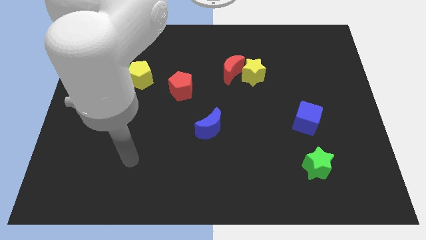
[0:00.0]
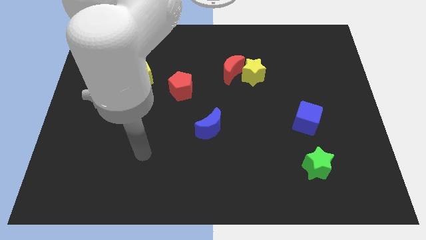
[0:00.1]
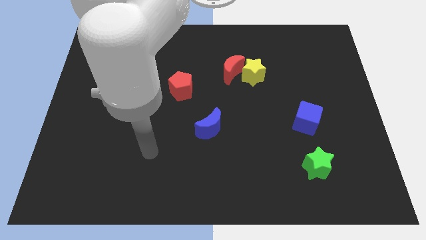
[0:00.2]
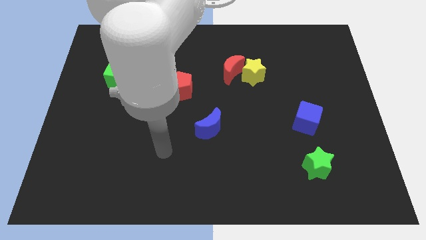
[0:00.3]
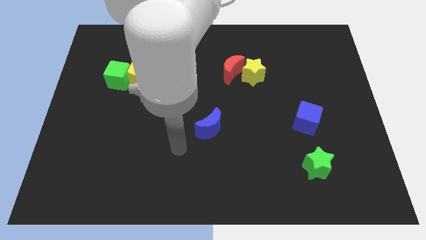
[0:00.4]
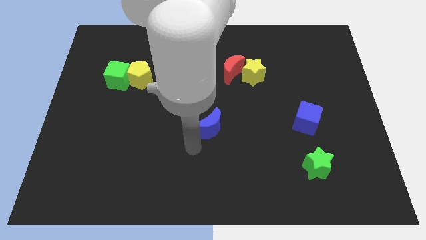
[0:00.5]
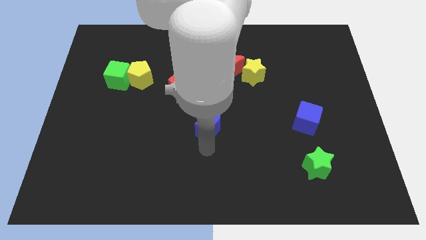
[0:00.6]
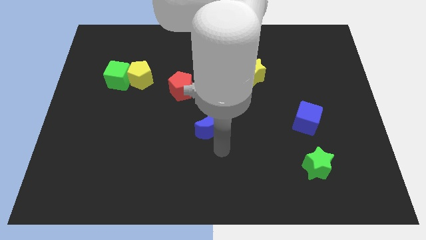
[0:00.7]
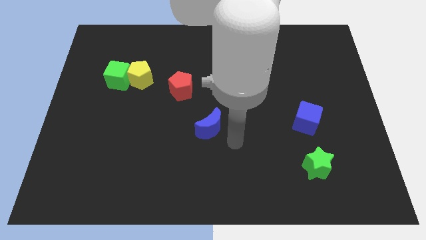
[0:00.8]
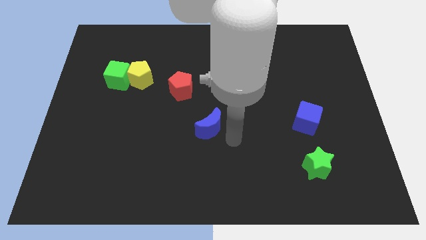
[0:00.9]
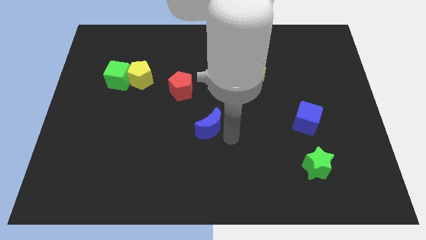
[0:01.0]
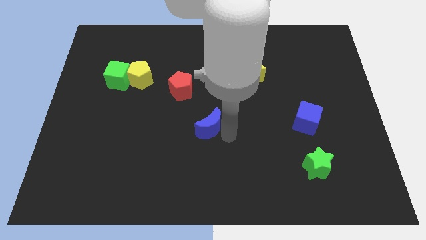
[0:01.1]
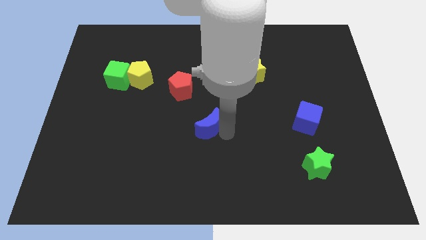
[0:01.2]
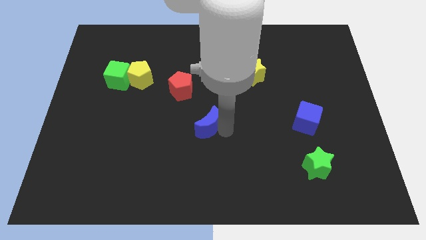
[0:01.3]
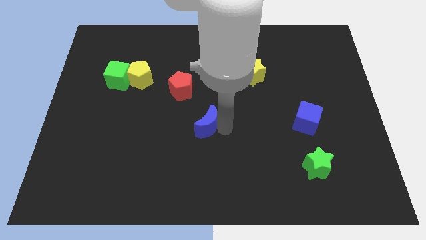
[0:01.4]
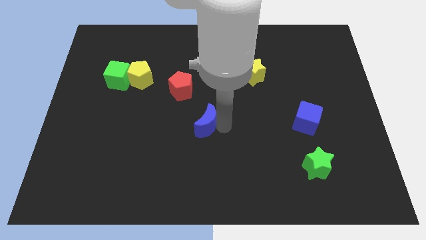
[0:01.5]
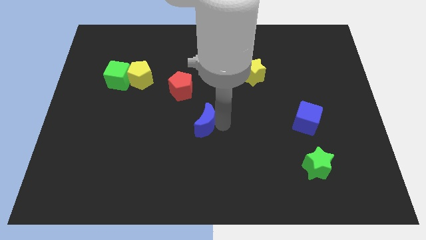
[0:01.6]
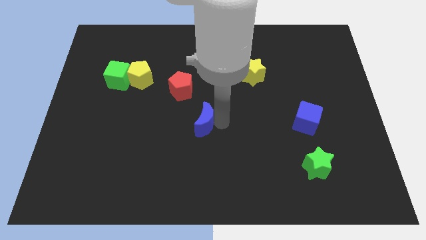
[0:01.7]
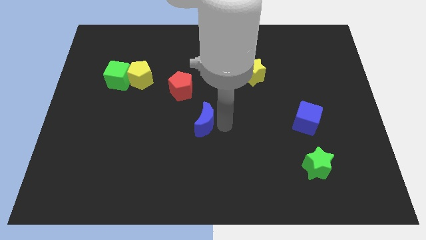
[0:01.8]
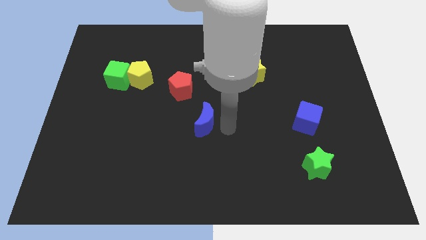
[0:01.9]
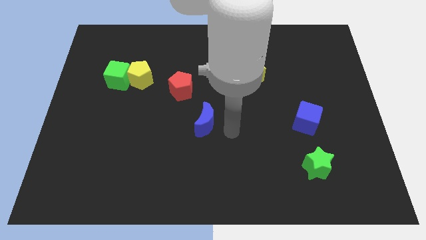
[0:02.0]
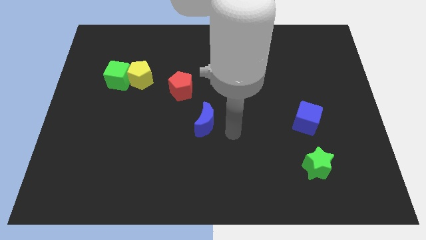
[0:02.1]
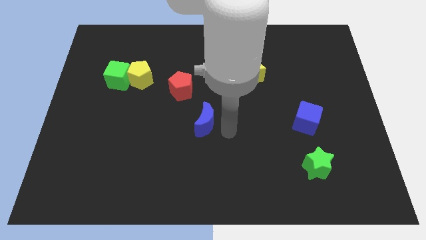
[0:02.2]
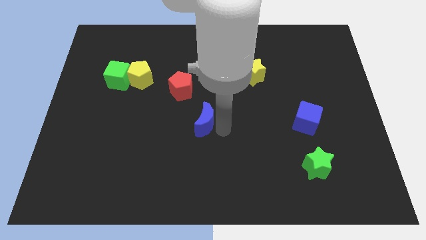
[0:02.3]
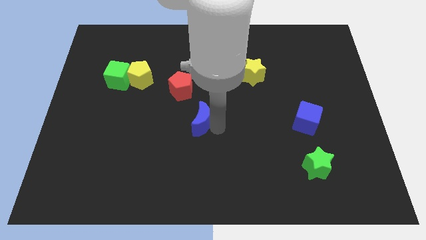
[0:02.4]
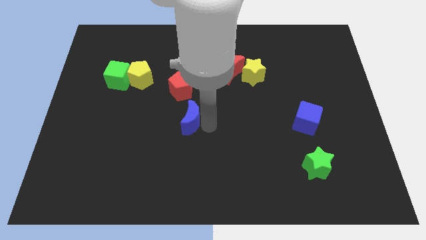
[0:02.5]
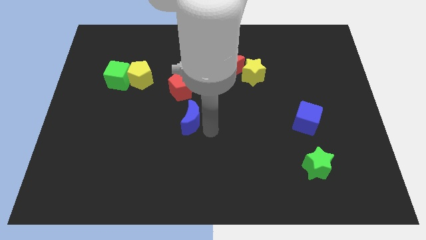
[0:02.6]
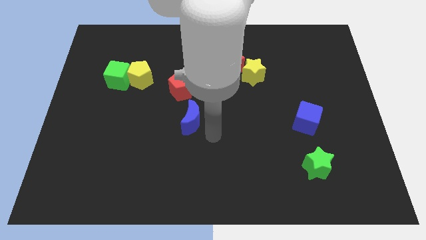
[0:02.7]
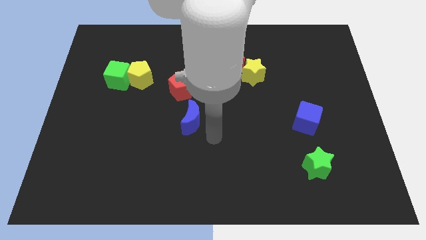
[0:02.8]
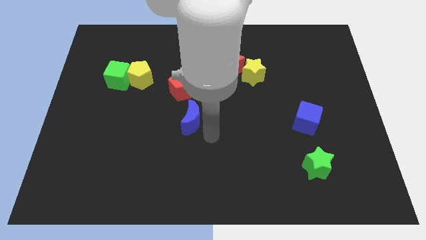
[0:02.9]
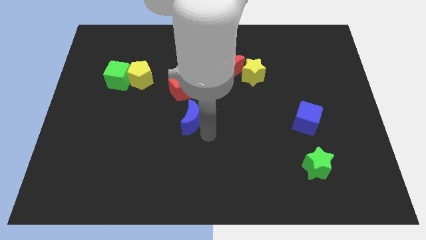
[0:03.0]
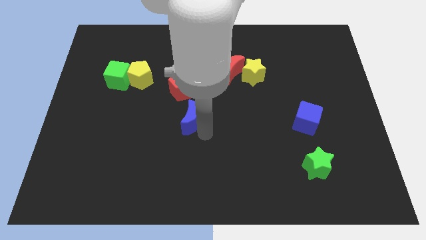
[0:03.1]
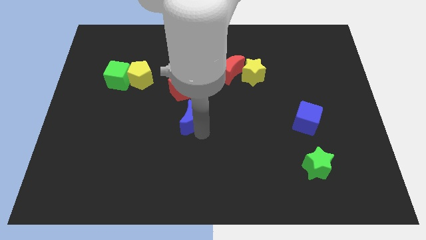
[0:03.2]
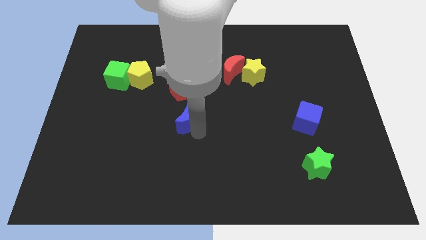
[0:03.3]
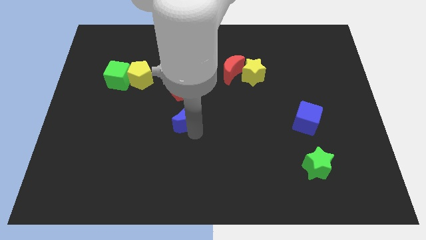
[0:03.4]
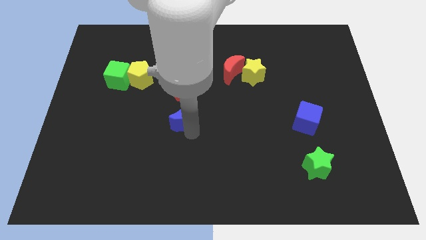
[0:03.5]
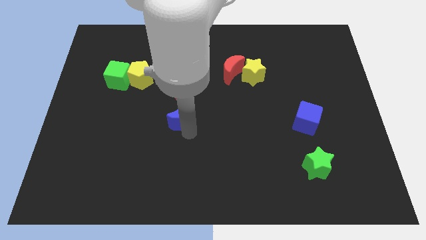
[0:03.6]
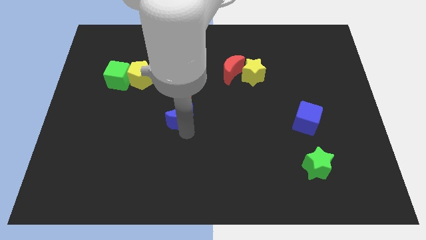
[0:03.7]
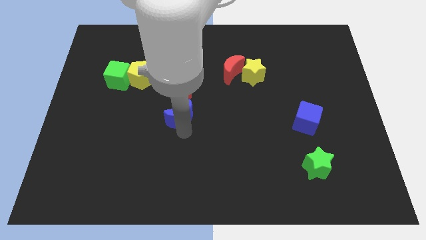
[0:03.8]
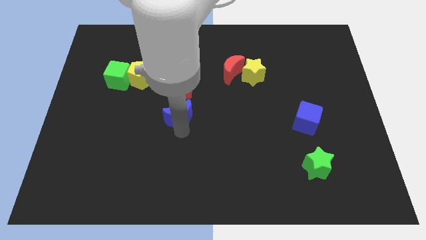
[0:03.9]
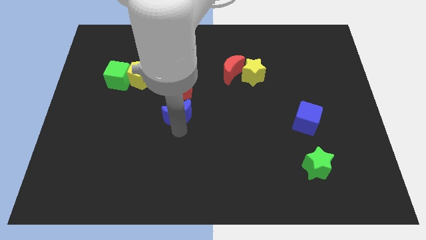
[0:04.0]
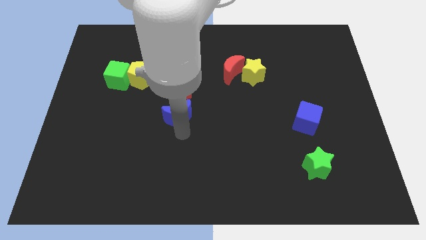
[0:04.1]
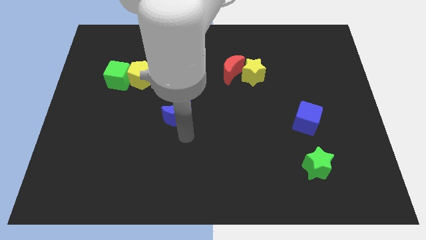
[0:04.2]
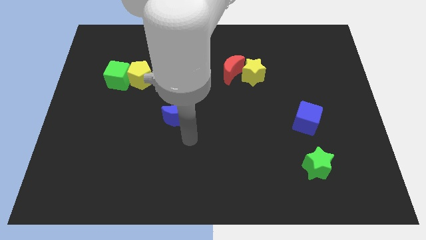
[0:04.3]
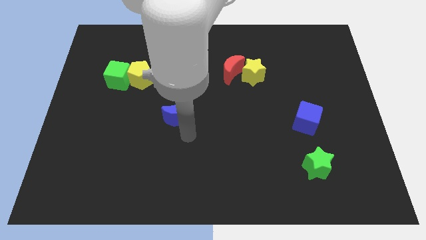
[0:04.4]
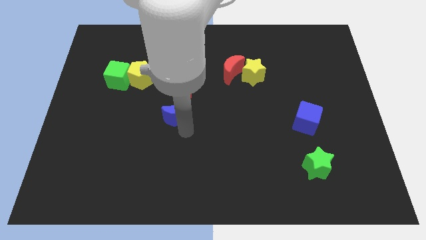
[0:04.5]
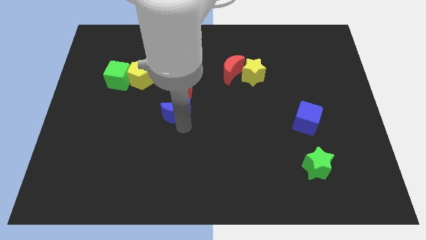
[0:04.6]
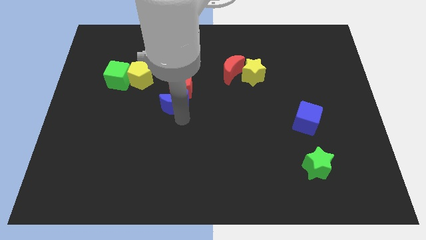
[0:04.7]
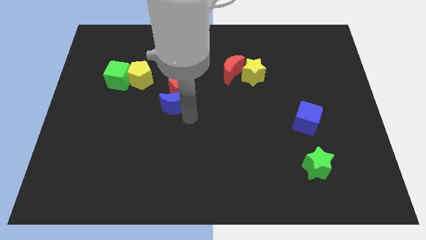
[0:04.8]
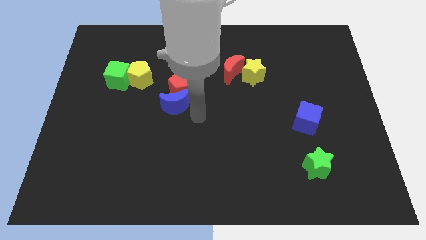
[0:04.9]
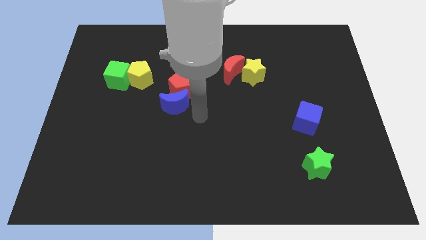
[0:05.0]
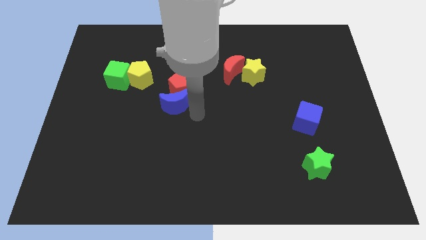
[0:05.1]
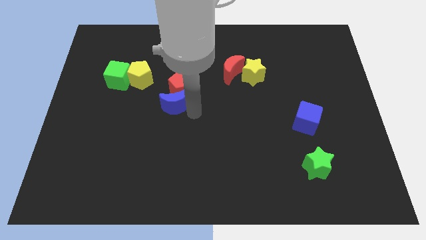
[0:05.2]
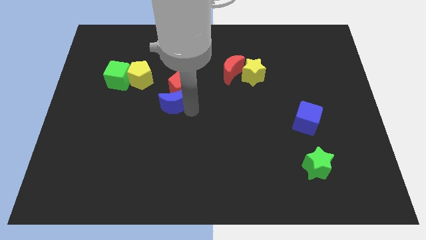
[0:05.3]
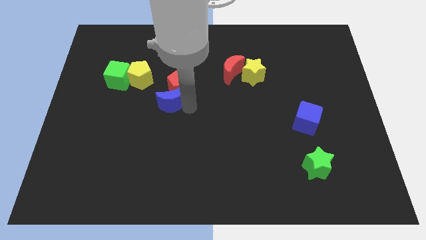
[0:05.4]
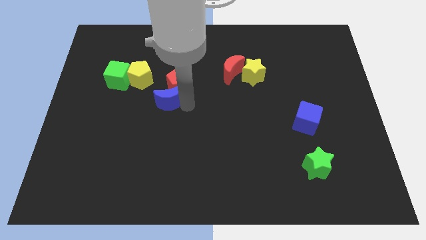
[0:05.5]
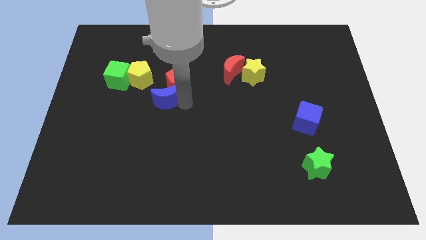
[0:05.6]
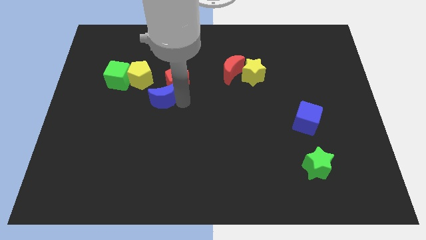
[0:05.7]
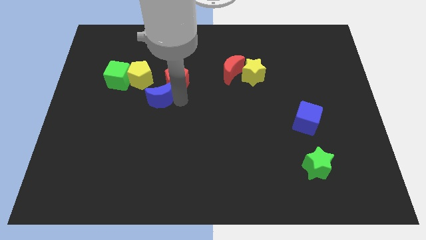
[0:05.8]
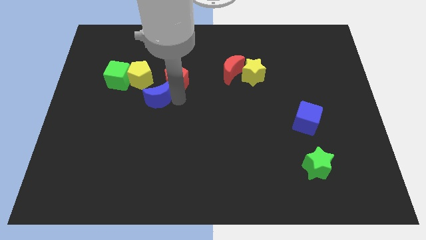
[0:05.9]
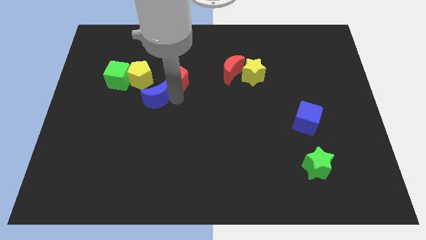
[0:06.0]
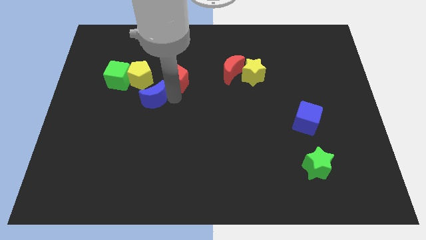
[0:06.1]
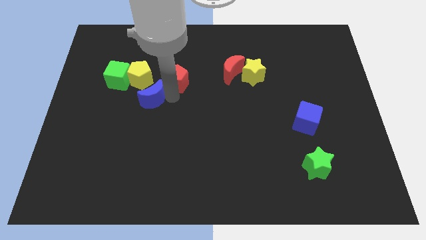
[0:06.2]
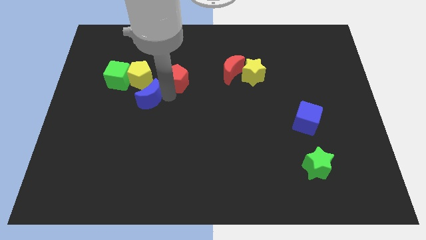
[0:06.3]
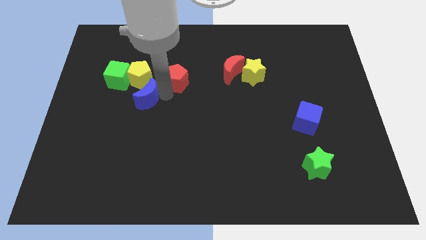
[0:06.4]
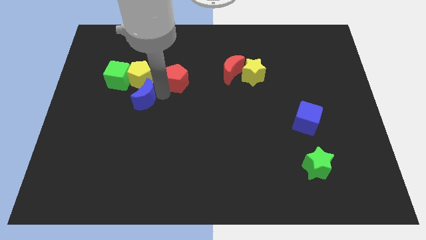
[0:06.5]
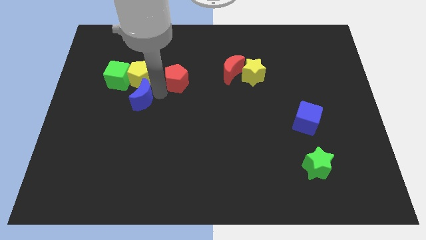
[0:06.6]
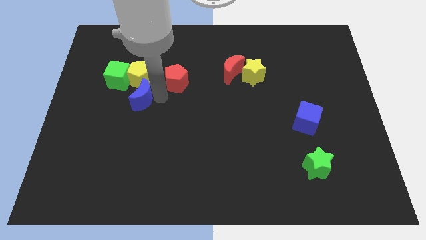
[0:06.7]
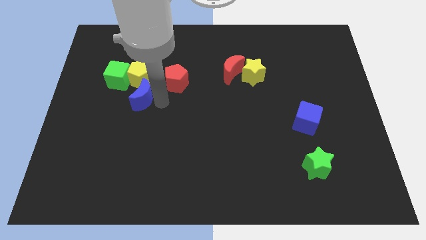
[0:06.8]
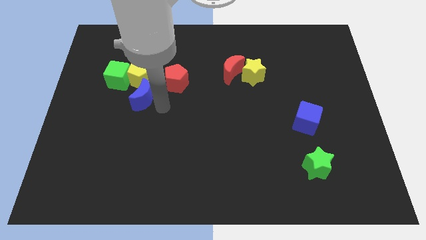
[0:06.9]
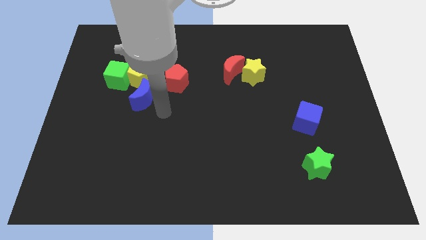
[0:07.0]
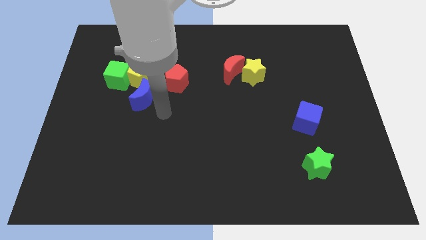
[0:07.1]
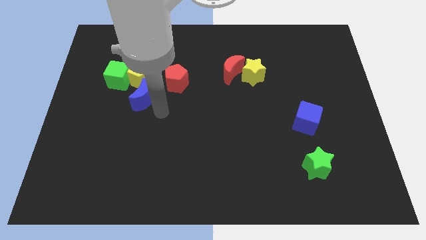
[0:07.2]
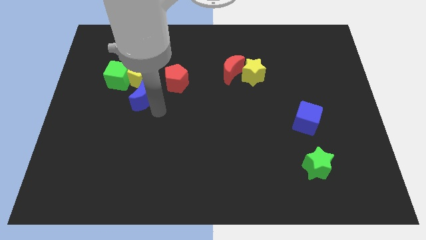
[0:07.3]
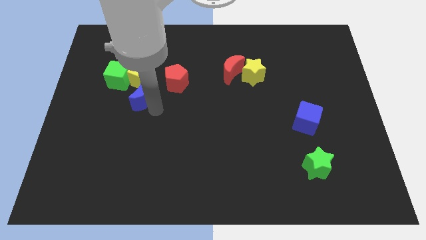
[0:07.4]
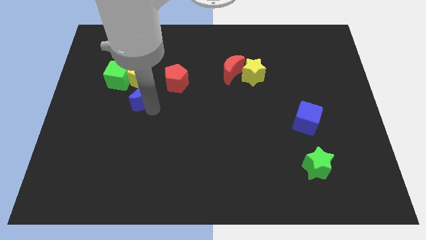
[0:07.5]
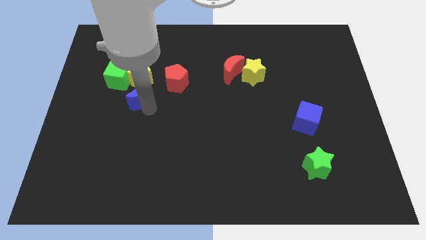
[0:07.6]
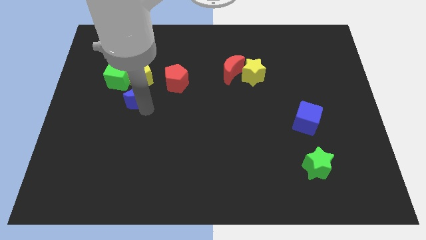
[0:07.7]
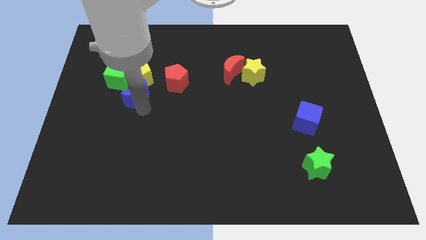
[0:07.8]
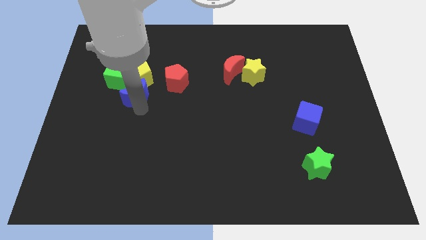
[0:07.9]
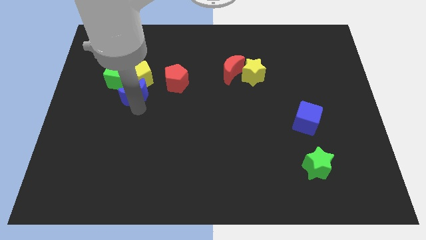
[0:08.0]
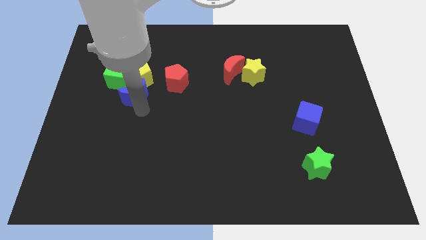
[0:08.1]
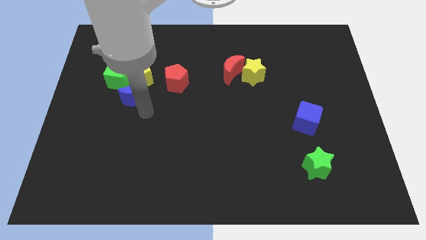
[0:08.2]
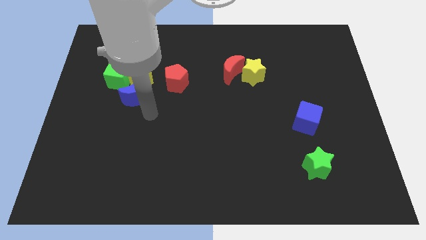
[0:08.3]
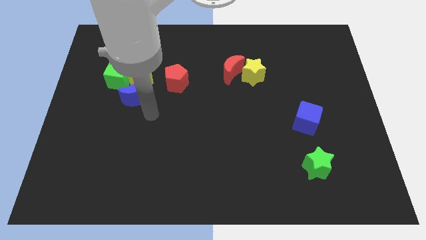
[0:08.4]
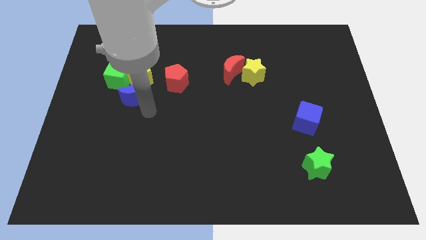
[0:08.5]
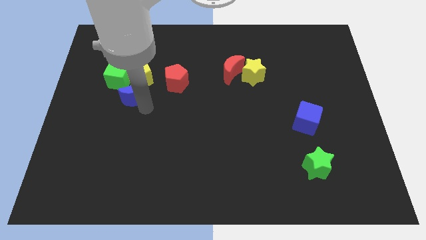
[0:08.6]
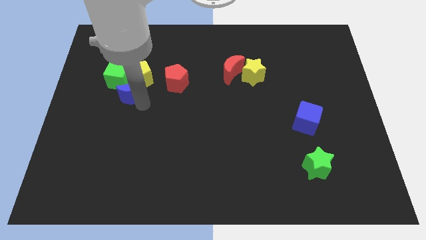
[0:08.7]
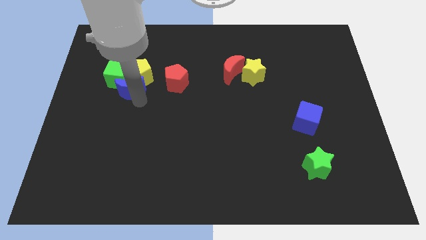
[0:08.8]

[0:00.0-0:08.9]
slide the blue moon to the green cube
